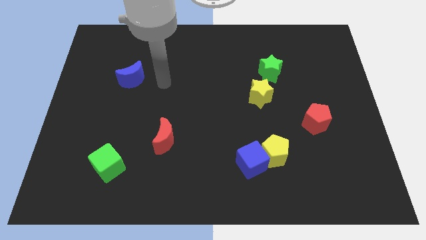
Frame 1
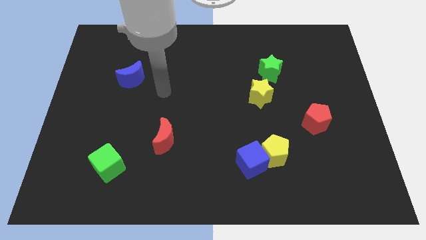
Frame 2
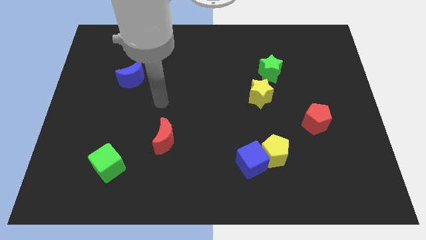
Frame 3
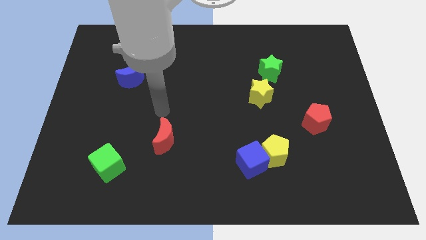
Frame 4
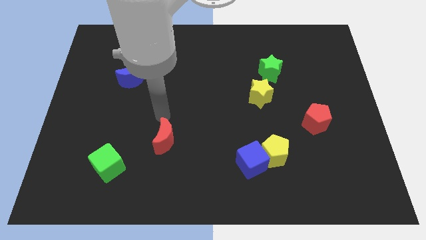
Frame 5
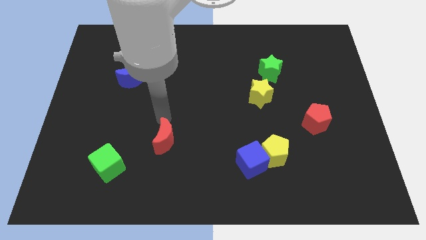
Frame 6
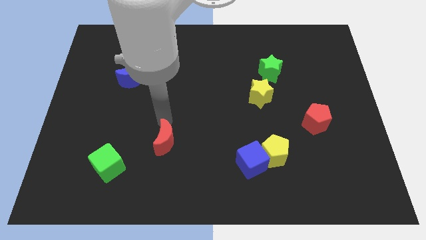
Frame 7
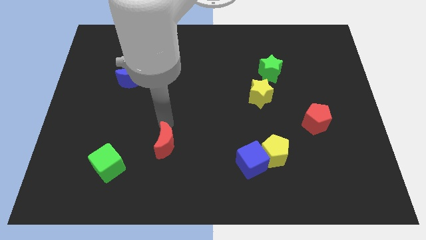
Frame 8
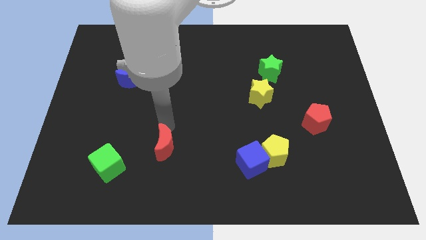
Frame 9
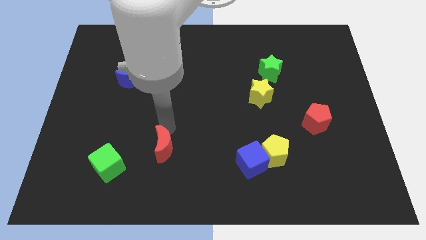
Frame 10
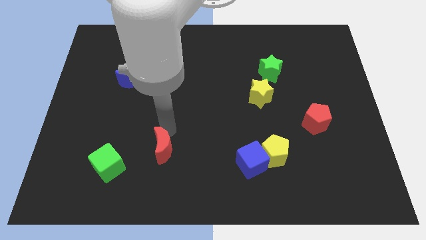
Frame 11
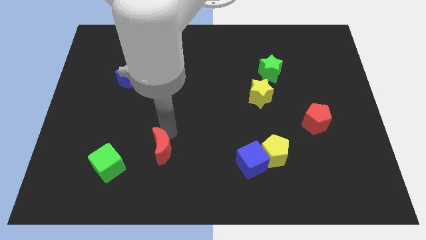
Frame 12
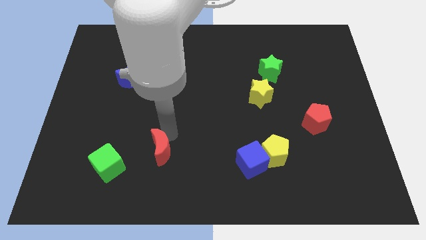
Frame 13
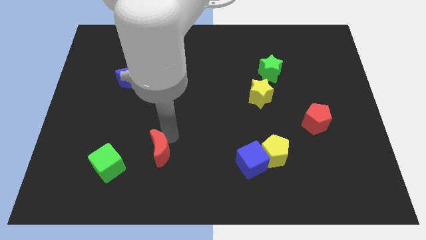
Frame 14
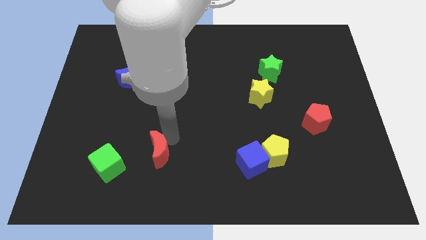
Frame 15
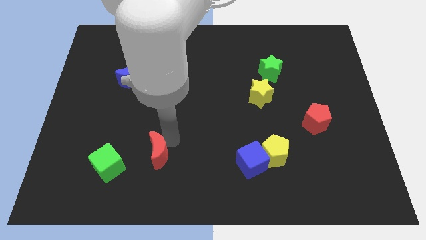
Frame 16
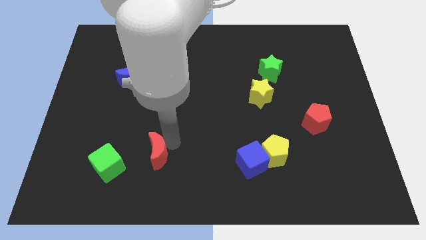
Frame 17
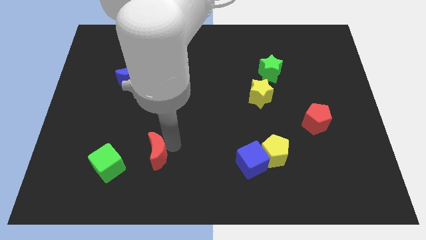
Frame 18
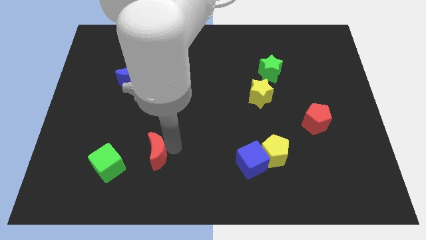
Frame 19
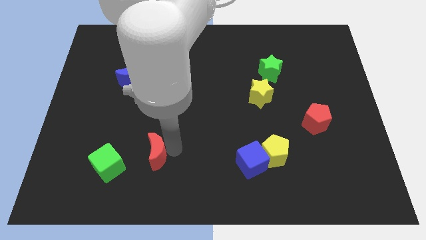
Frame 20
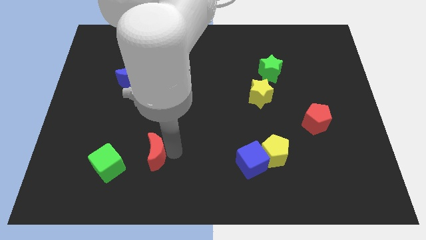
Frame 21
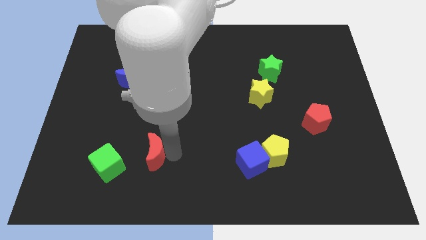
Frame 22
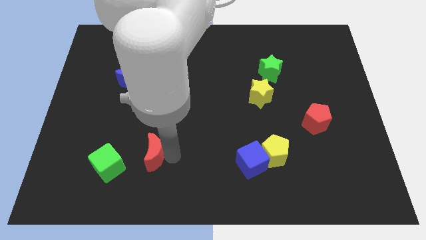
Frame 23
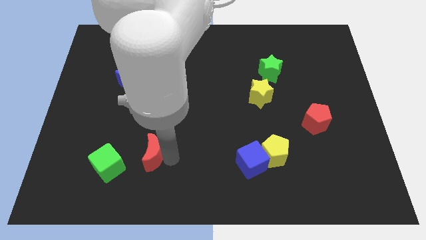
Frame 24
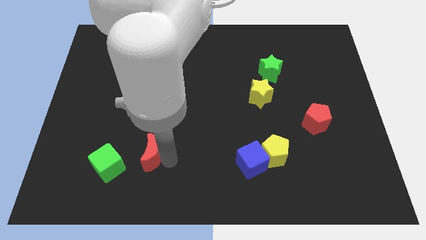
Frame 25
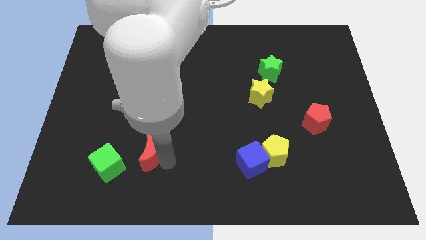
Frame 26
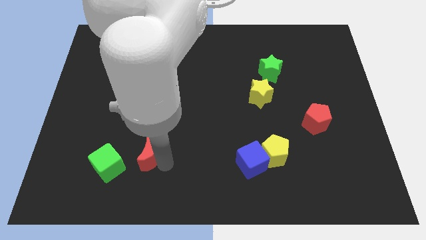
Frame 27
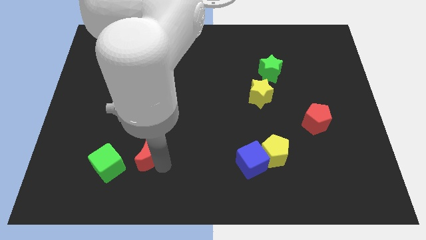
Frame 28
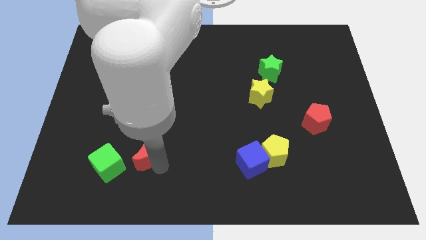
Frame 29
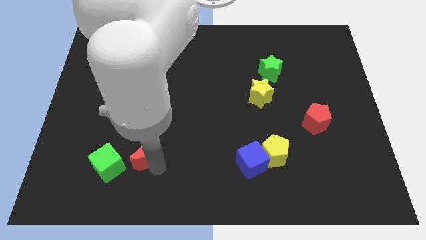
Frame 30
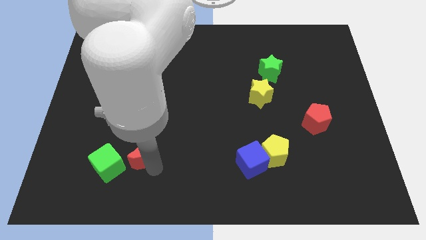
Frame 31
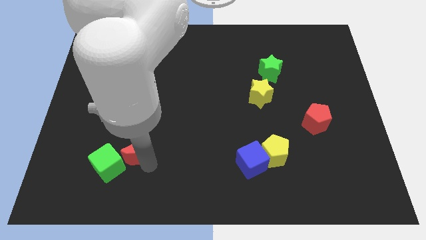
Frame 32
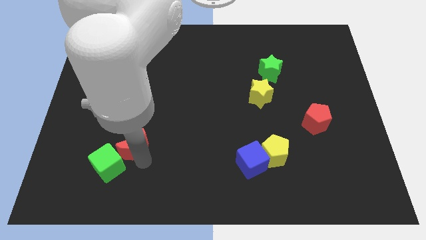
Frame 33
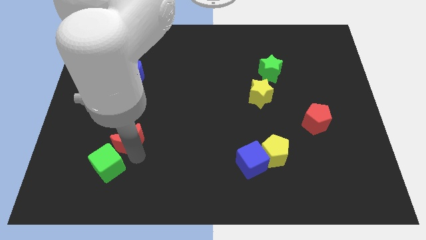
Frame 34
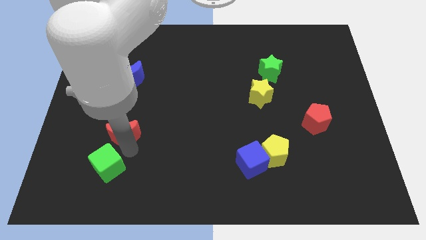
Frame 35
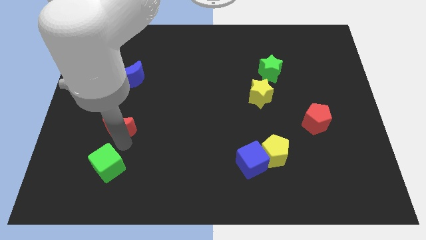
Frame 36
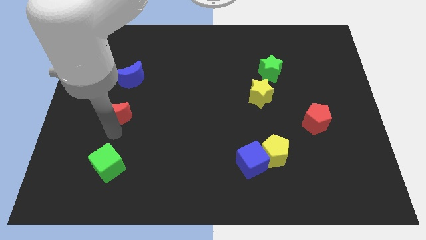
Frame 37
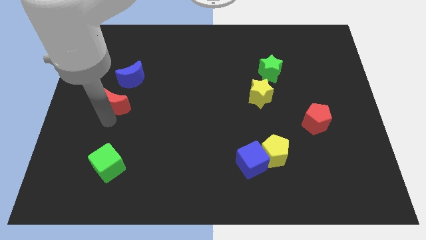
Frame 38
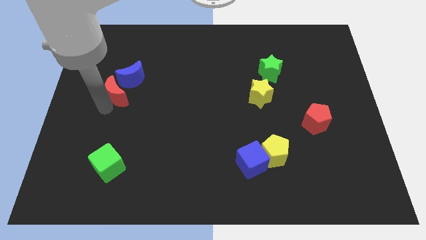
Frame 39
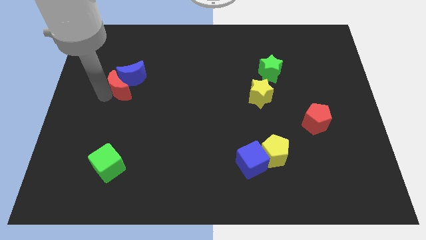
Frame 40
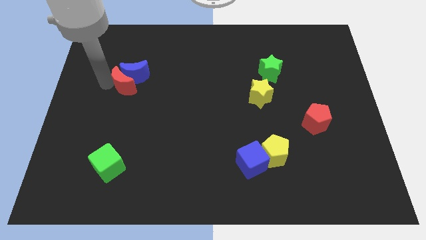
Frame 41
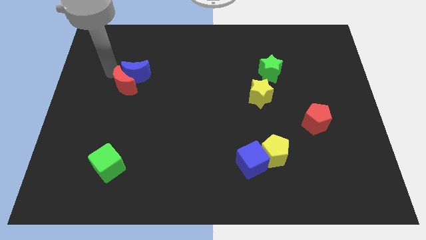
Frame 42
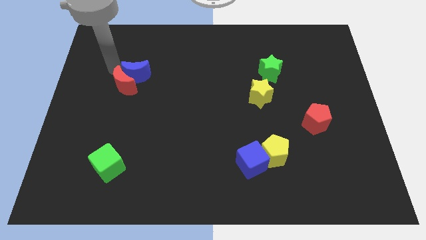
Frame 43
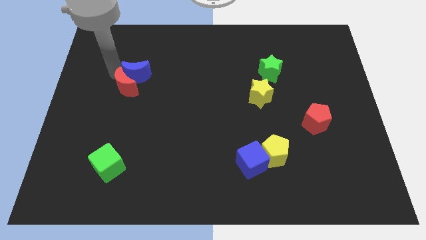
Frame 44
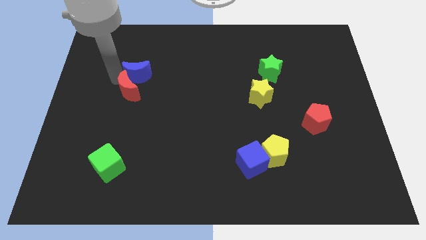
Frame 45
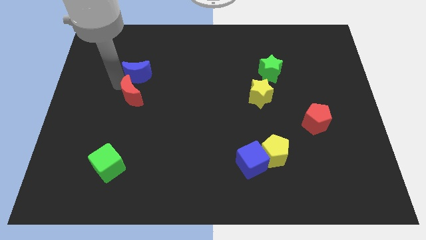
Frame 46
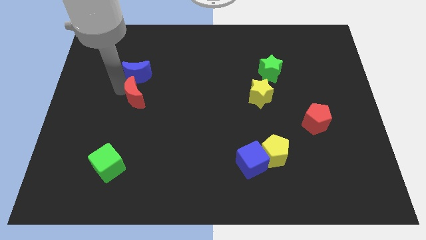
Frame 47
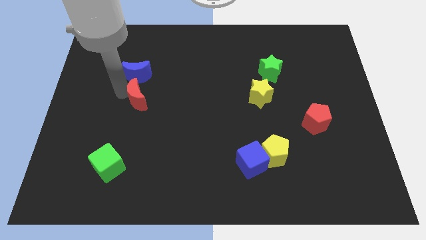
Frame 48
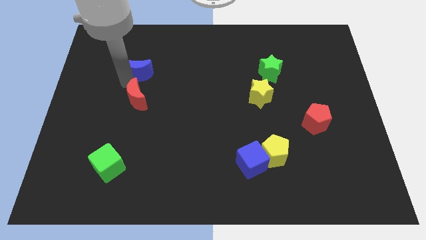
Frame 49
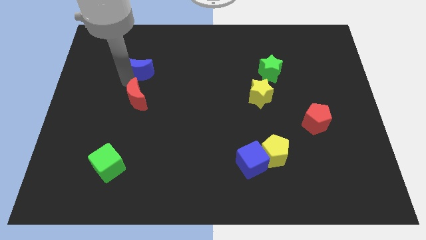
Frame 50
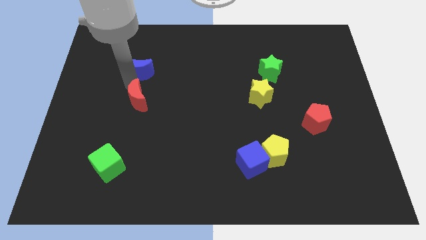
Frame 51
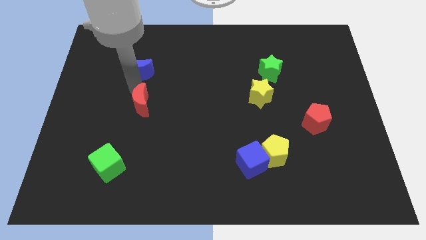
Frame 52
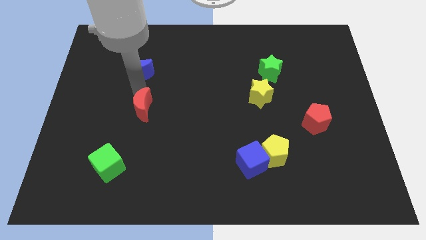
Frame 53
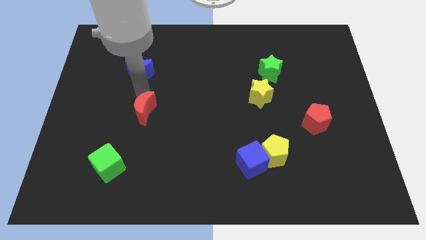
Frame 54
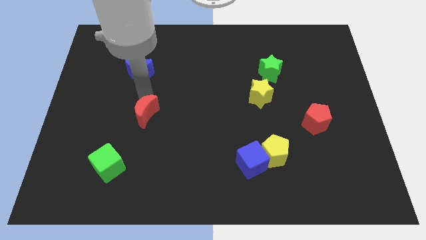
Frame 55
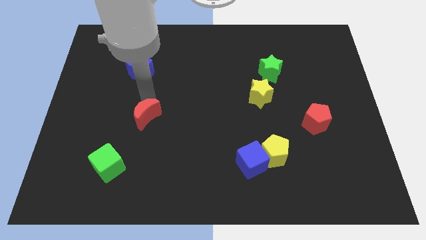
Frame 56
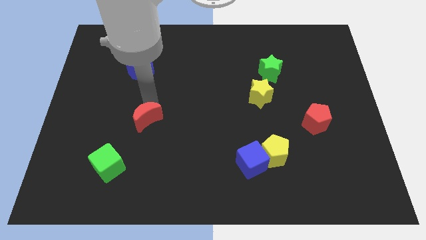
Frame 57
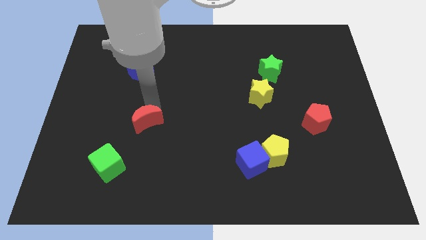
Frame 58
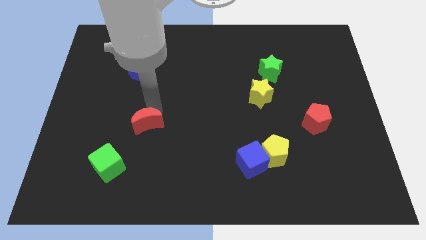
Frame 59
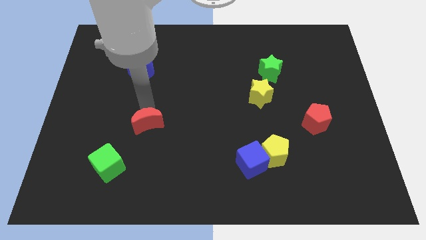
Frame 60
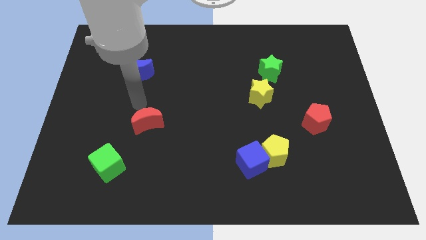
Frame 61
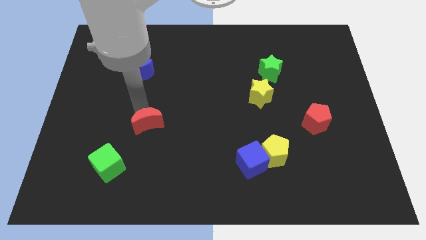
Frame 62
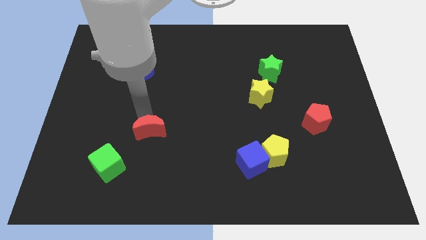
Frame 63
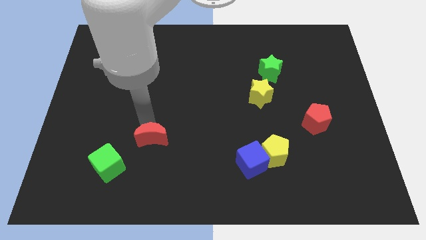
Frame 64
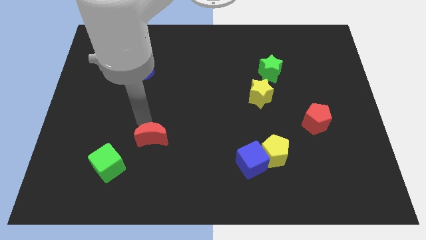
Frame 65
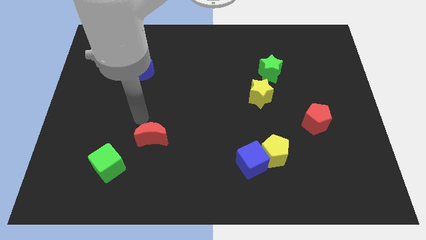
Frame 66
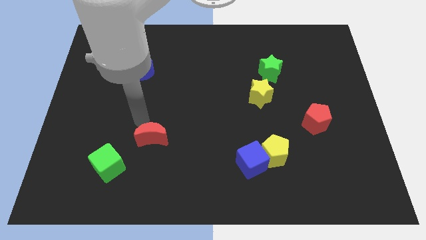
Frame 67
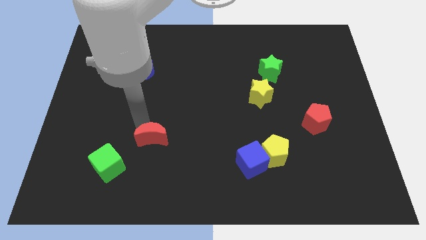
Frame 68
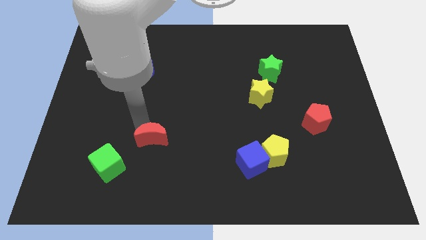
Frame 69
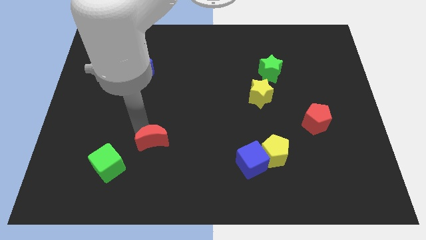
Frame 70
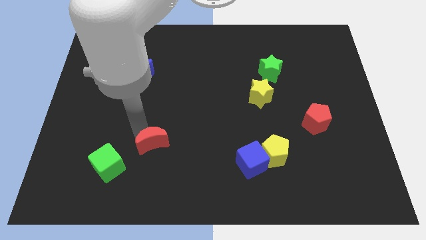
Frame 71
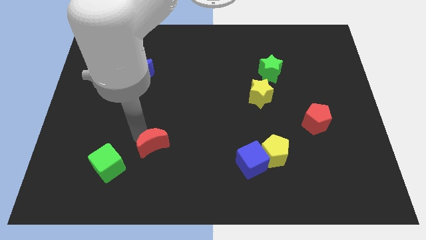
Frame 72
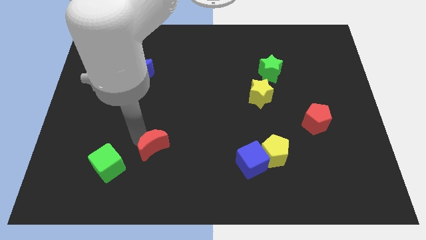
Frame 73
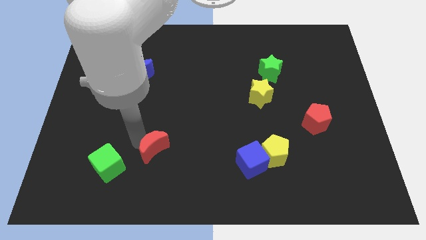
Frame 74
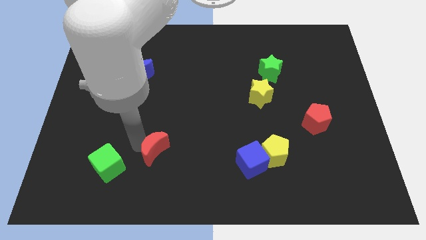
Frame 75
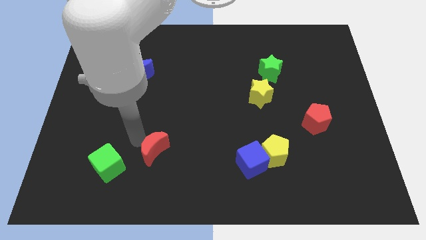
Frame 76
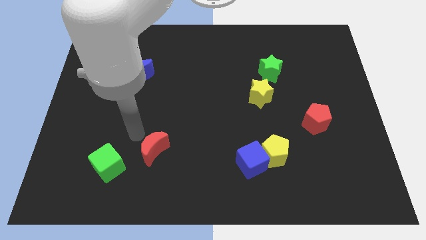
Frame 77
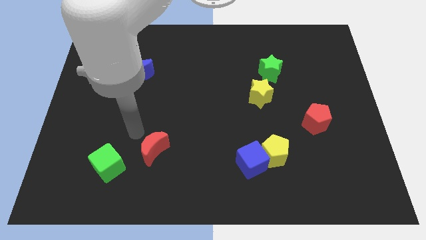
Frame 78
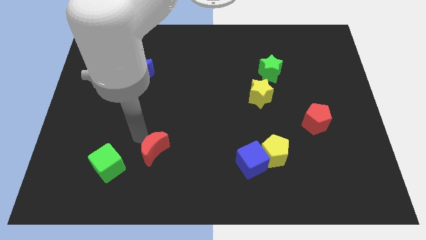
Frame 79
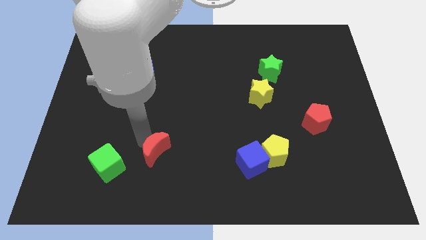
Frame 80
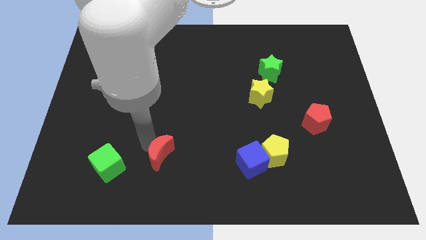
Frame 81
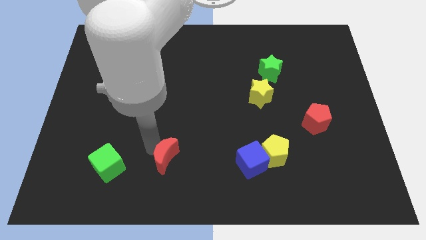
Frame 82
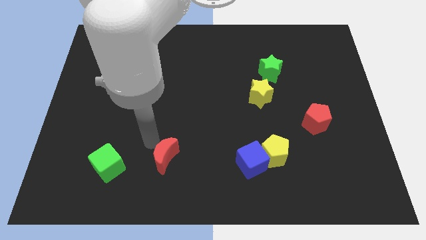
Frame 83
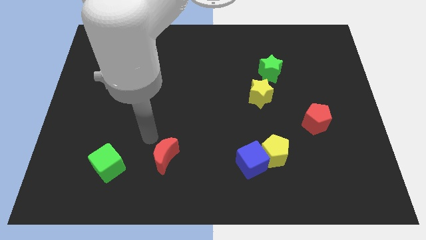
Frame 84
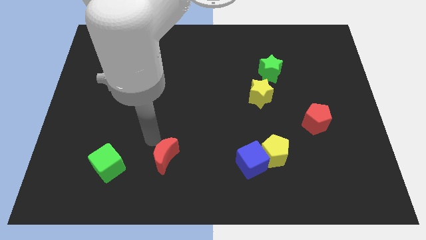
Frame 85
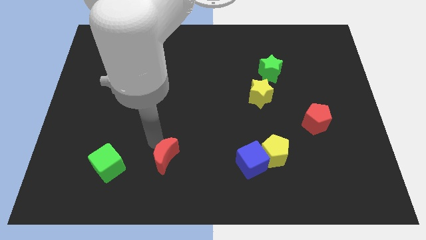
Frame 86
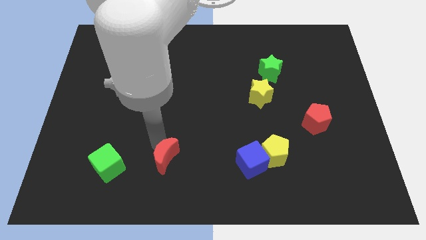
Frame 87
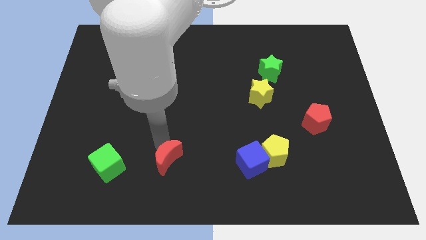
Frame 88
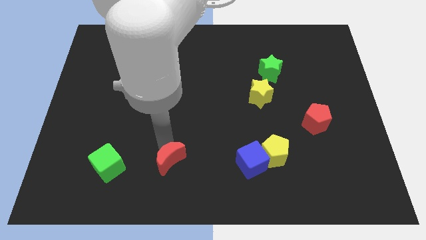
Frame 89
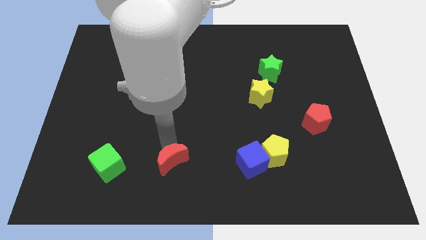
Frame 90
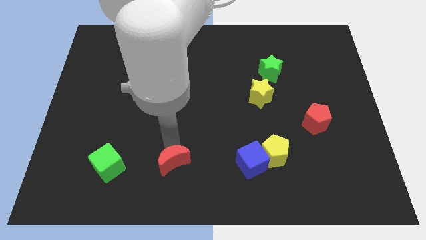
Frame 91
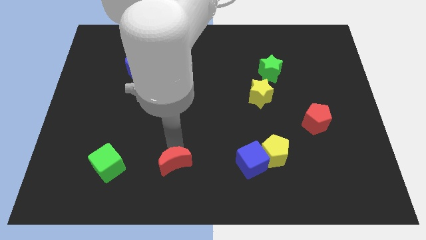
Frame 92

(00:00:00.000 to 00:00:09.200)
put the red moon to the bottom
